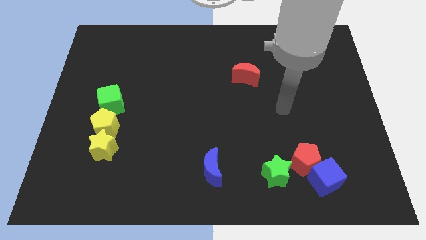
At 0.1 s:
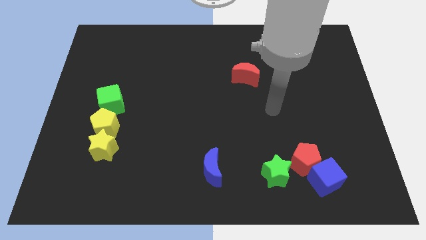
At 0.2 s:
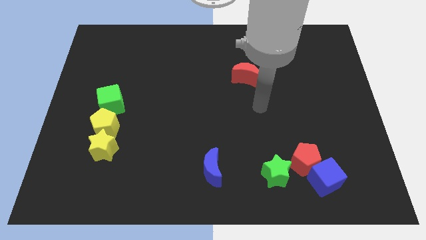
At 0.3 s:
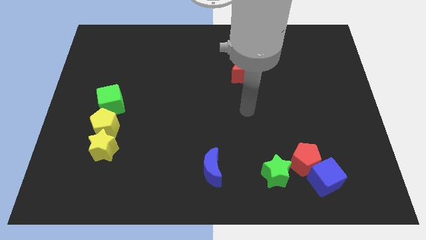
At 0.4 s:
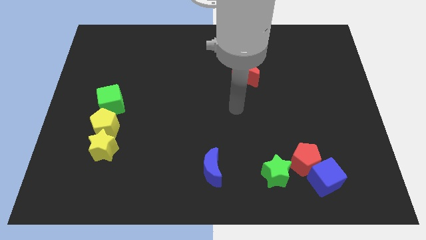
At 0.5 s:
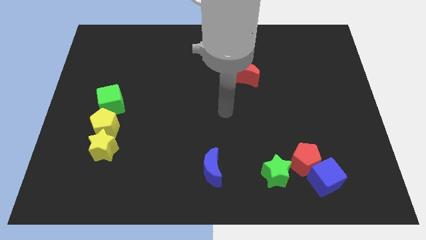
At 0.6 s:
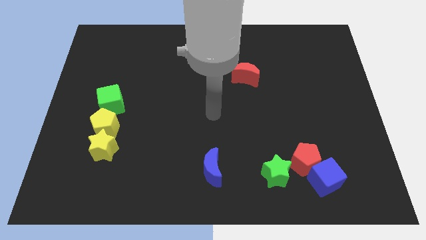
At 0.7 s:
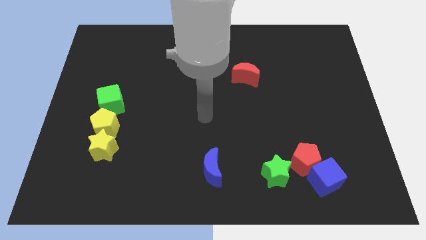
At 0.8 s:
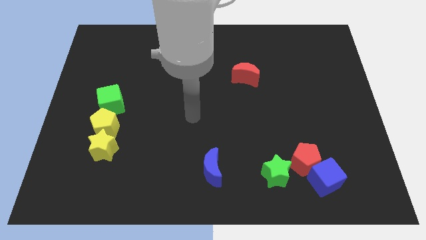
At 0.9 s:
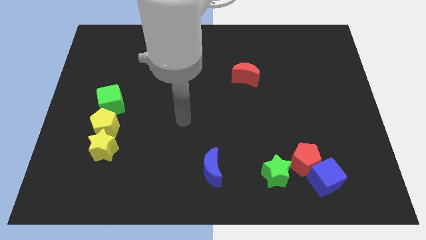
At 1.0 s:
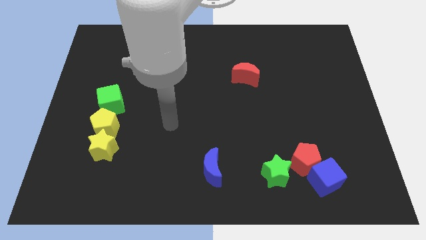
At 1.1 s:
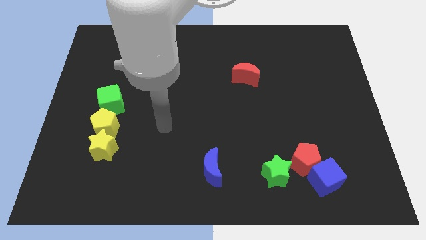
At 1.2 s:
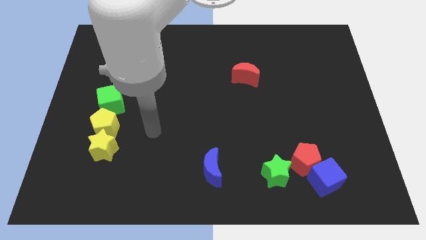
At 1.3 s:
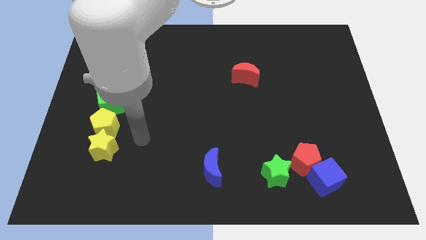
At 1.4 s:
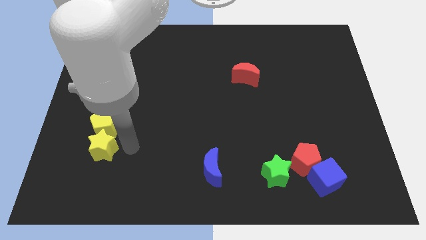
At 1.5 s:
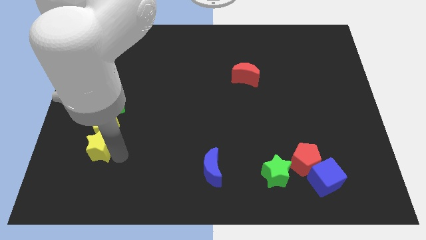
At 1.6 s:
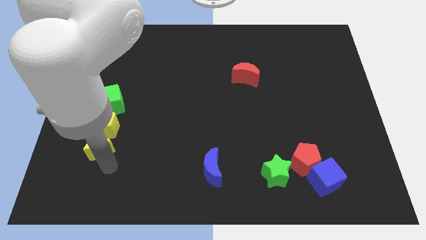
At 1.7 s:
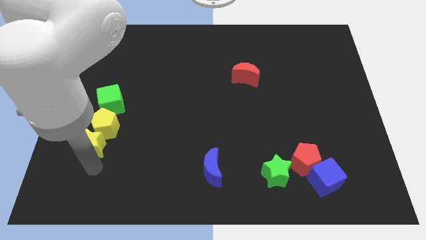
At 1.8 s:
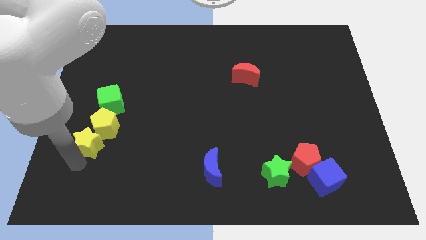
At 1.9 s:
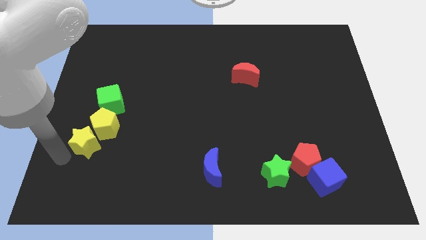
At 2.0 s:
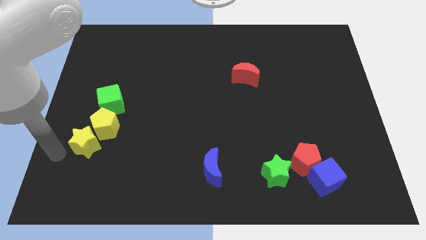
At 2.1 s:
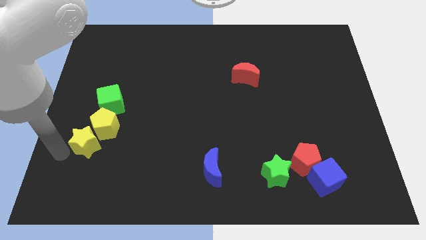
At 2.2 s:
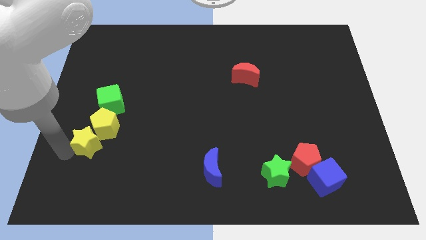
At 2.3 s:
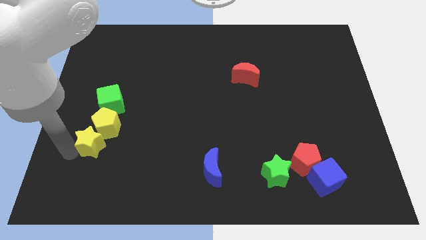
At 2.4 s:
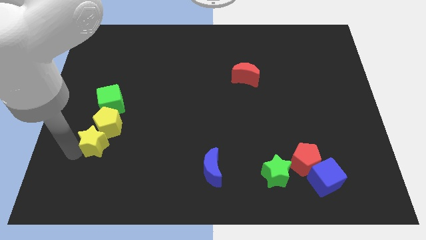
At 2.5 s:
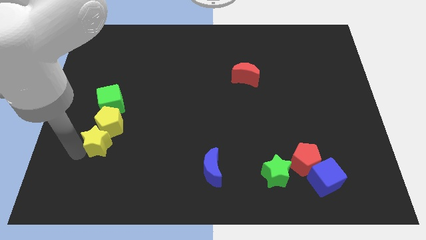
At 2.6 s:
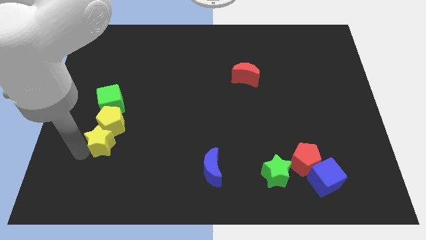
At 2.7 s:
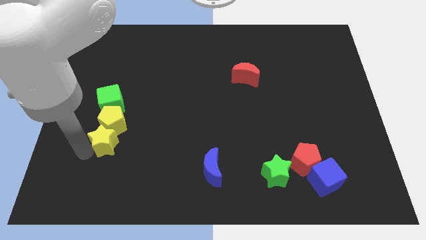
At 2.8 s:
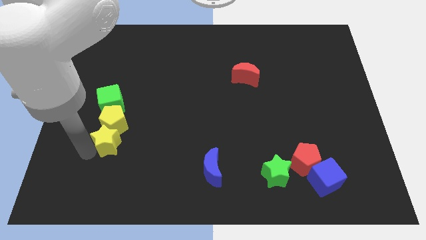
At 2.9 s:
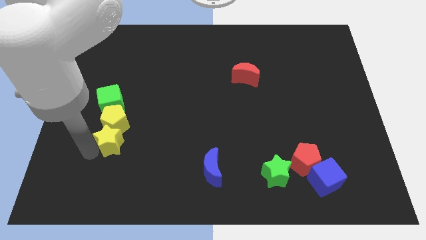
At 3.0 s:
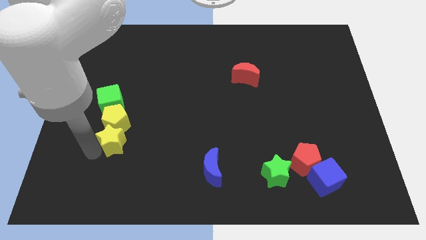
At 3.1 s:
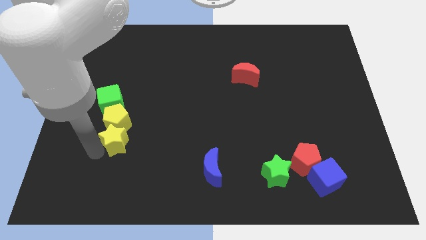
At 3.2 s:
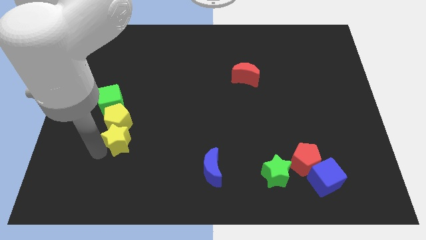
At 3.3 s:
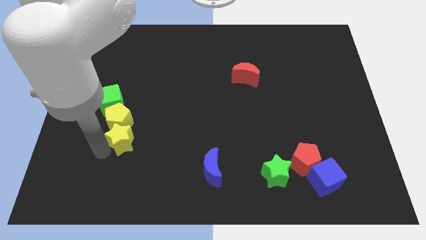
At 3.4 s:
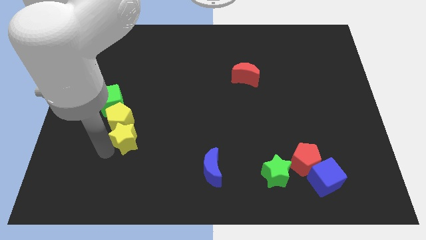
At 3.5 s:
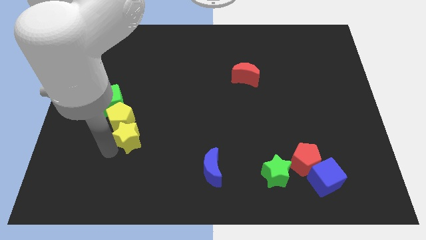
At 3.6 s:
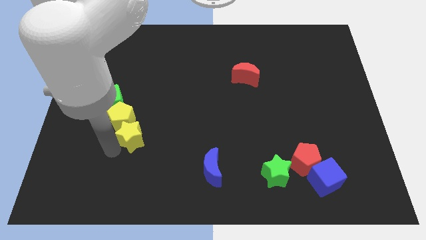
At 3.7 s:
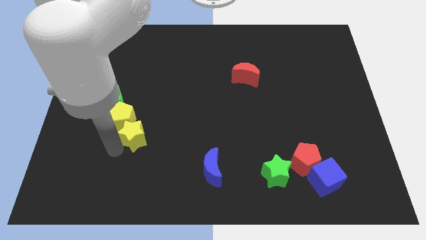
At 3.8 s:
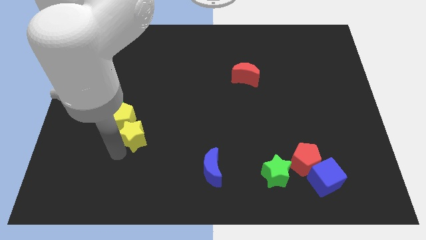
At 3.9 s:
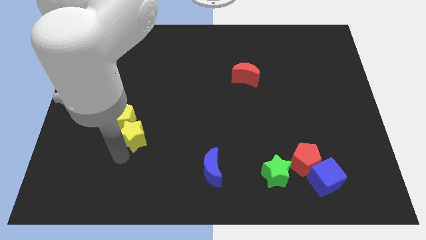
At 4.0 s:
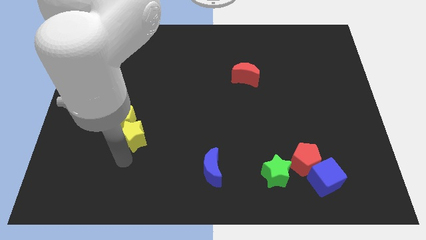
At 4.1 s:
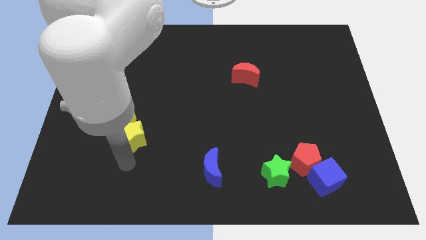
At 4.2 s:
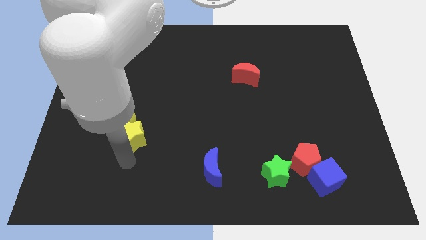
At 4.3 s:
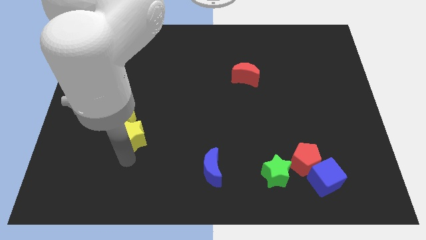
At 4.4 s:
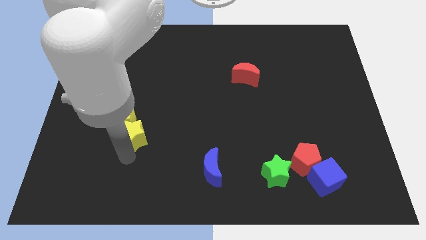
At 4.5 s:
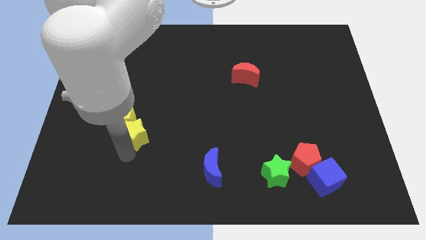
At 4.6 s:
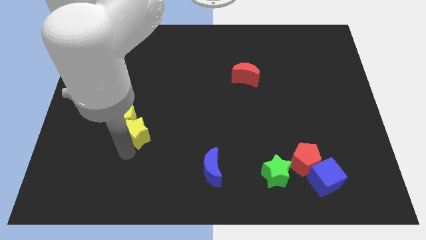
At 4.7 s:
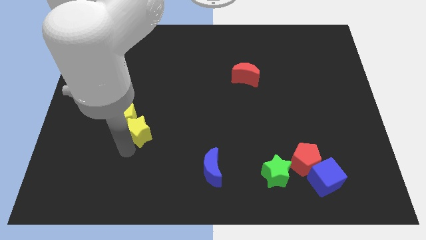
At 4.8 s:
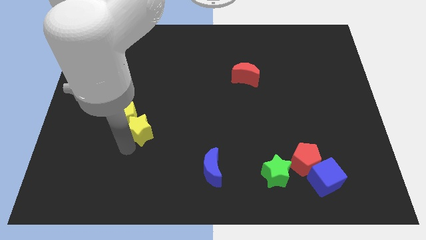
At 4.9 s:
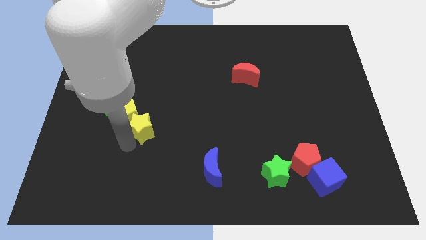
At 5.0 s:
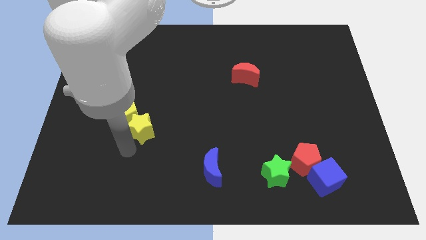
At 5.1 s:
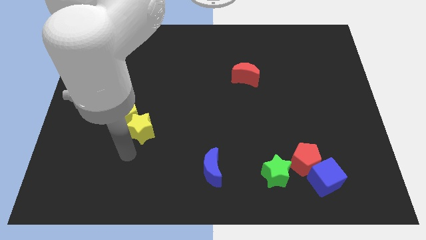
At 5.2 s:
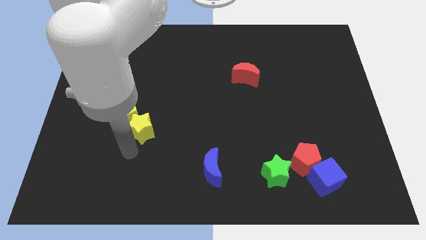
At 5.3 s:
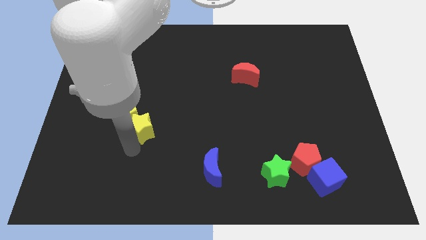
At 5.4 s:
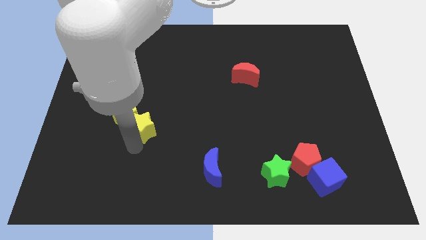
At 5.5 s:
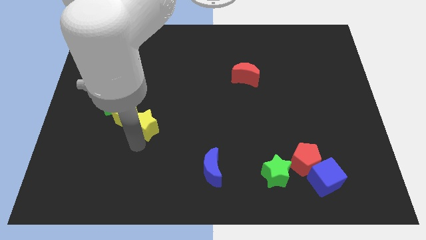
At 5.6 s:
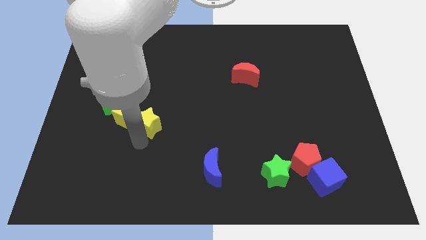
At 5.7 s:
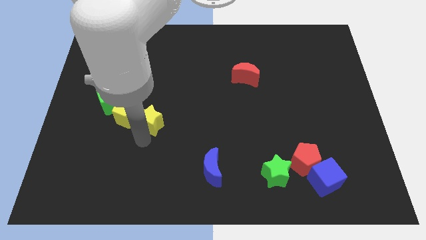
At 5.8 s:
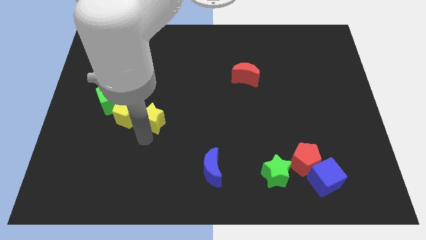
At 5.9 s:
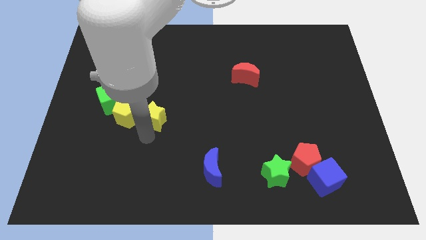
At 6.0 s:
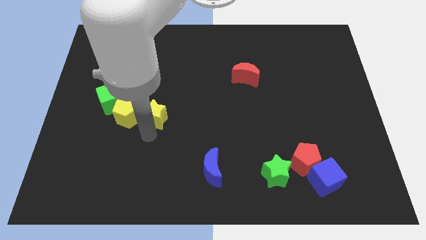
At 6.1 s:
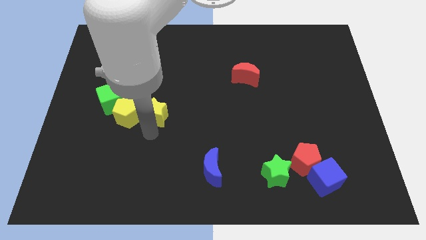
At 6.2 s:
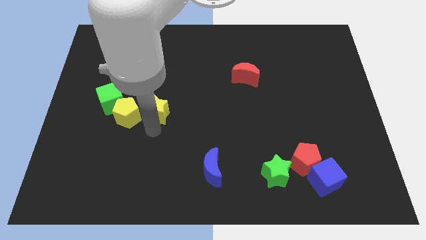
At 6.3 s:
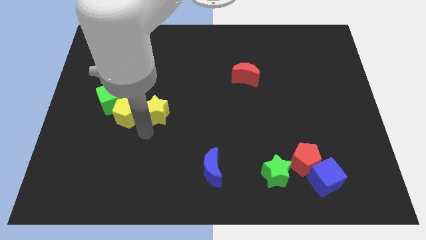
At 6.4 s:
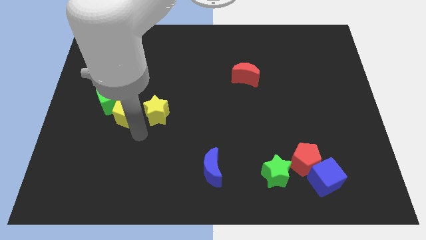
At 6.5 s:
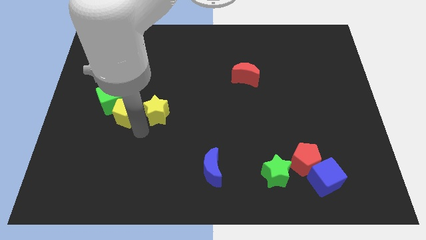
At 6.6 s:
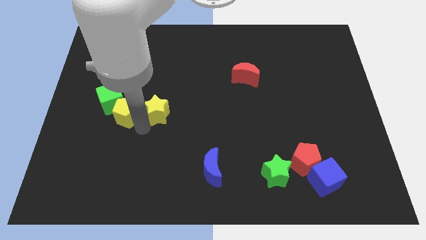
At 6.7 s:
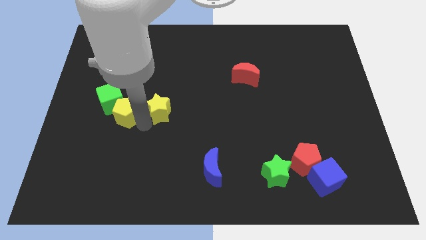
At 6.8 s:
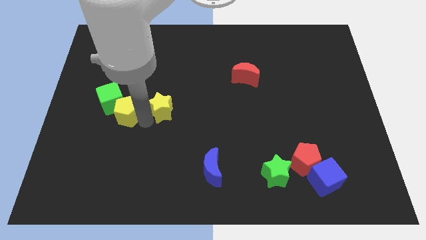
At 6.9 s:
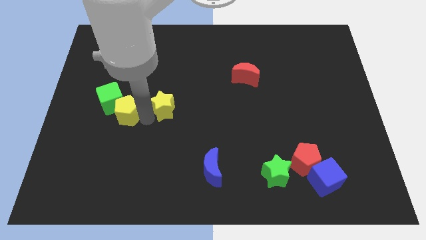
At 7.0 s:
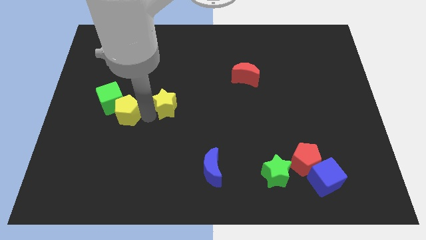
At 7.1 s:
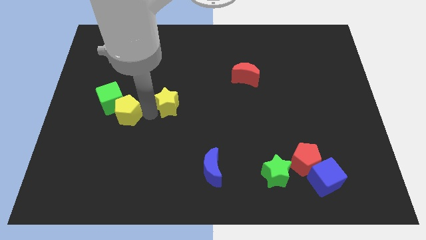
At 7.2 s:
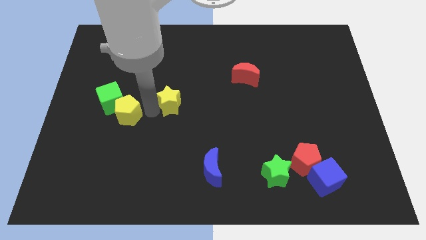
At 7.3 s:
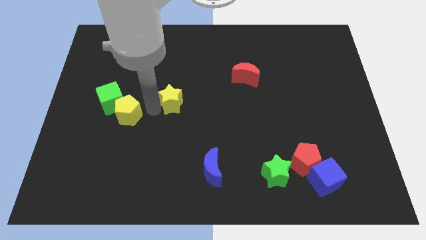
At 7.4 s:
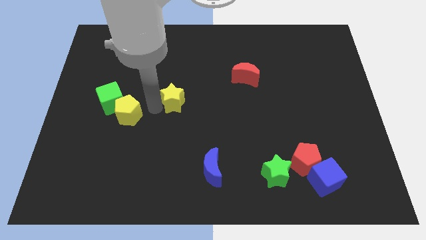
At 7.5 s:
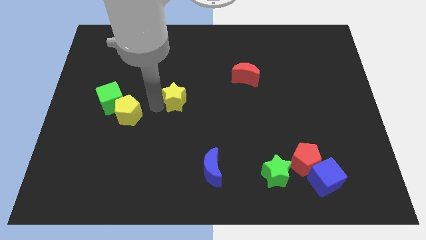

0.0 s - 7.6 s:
move the yellow star up and then to the right

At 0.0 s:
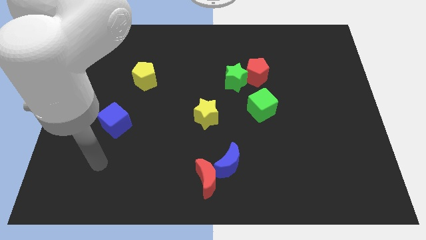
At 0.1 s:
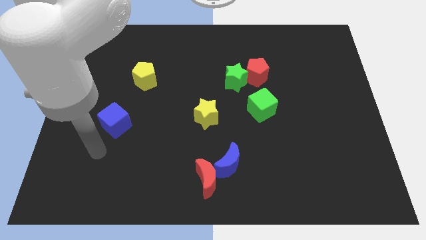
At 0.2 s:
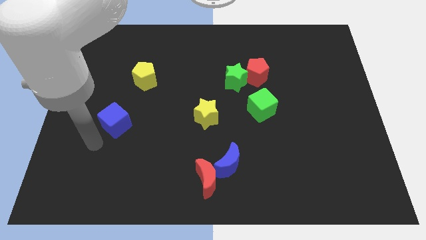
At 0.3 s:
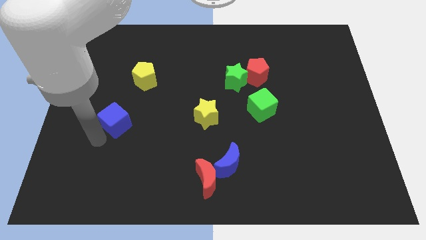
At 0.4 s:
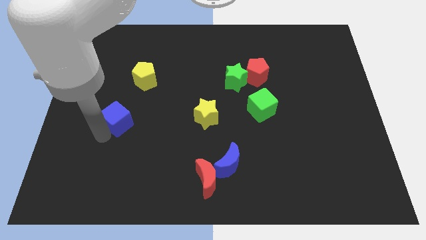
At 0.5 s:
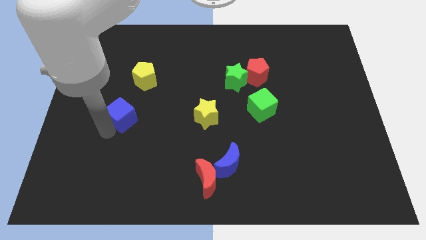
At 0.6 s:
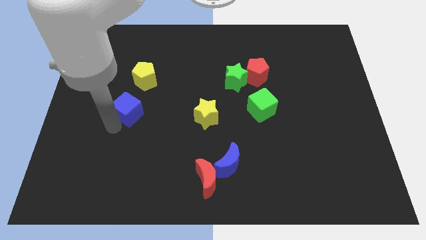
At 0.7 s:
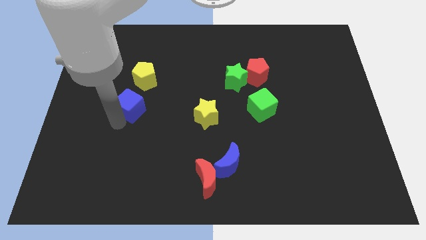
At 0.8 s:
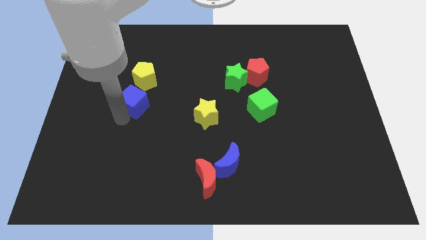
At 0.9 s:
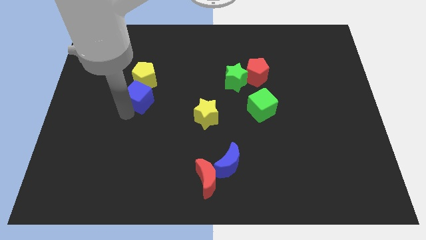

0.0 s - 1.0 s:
slightly slide the blue cube upwards and right diagonally
